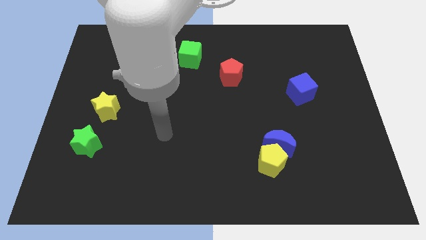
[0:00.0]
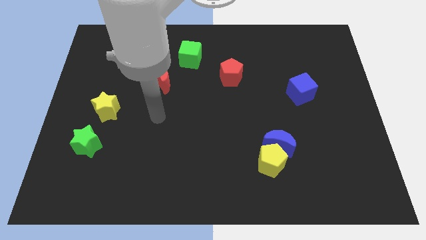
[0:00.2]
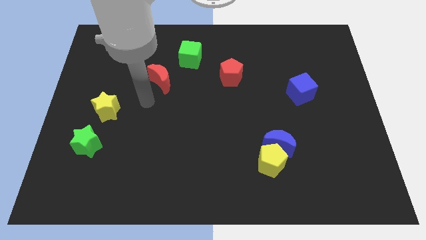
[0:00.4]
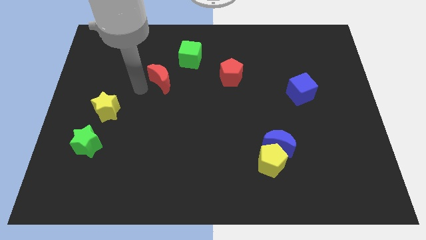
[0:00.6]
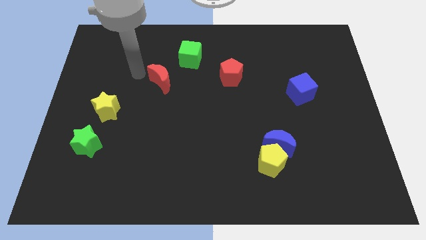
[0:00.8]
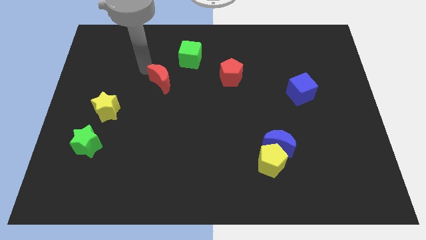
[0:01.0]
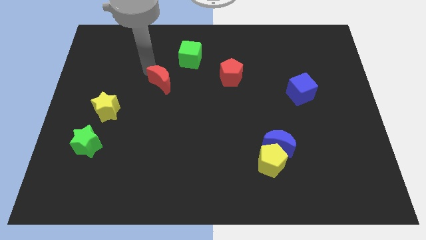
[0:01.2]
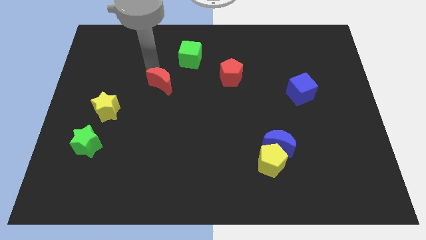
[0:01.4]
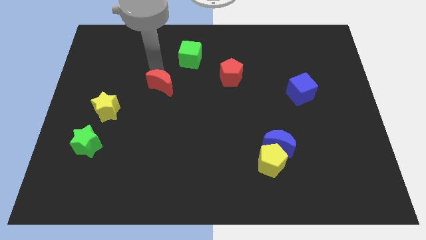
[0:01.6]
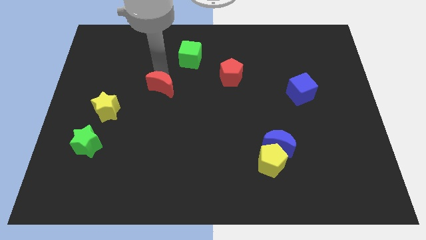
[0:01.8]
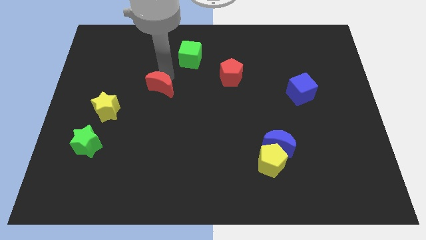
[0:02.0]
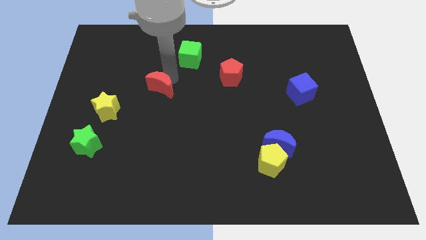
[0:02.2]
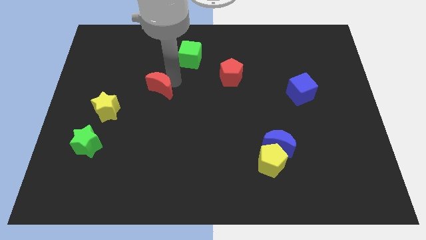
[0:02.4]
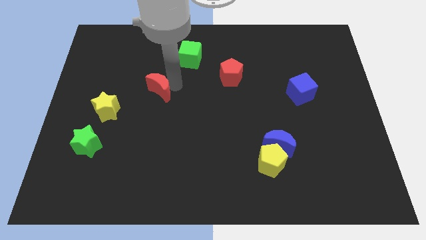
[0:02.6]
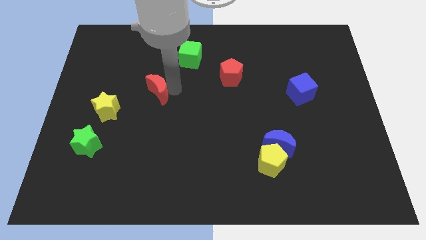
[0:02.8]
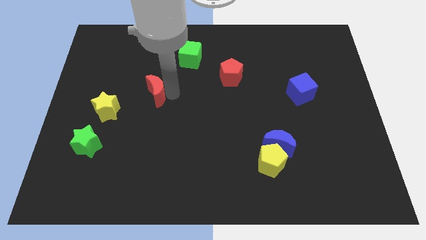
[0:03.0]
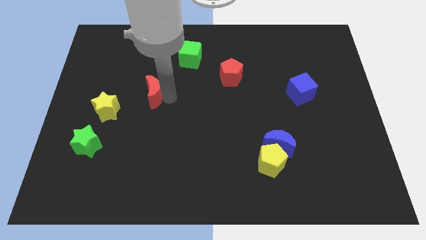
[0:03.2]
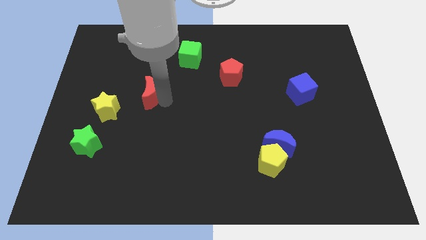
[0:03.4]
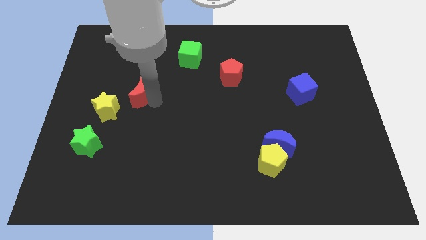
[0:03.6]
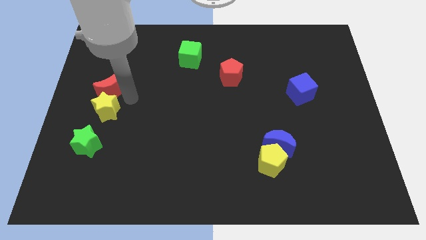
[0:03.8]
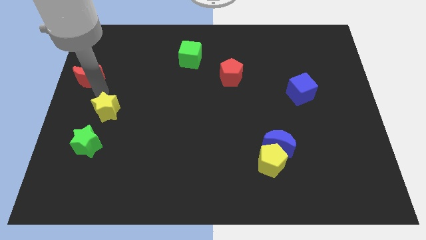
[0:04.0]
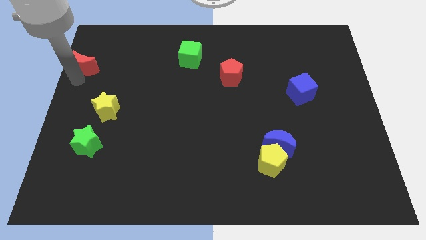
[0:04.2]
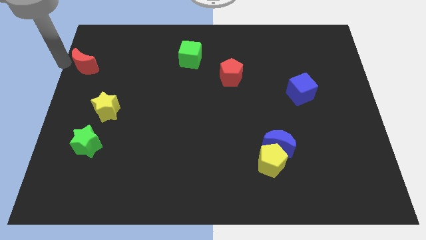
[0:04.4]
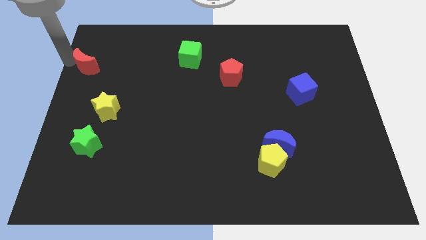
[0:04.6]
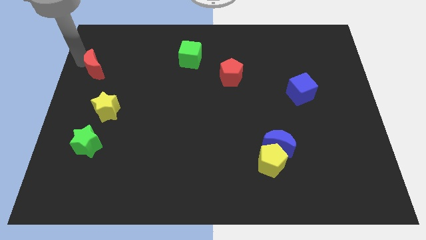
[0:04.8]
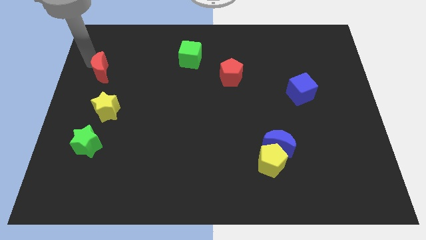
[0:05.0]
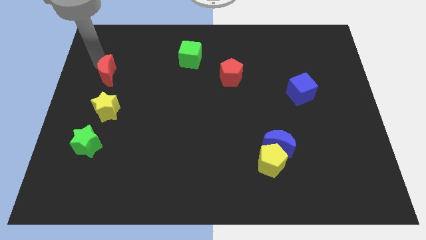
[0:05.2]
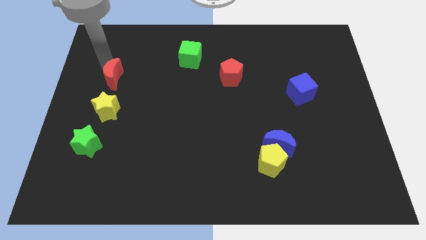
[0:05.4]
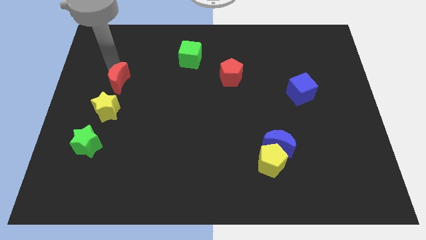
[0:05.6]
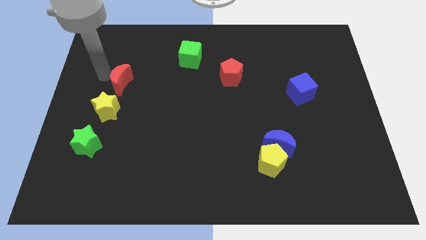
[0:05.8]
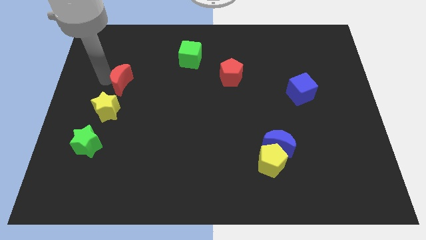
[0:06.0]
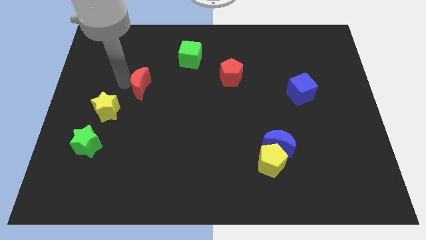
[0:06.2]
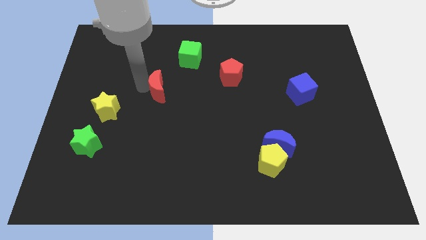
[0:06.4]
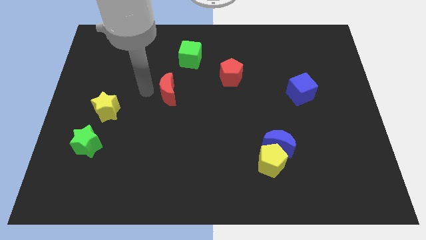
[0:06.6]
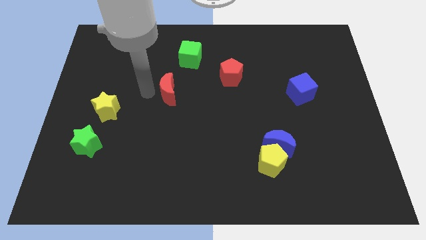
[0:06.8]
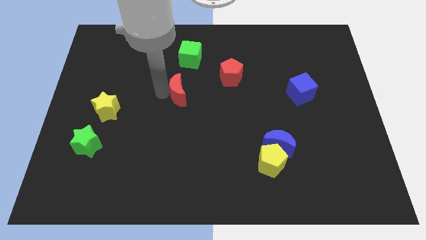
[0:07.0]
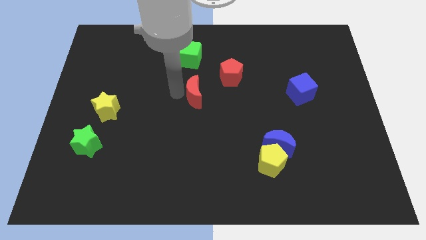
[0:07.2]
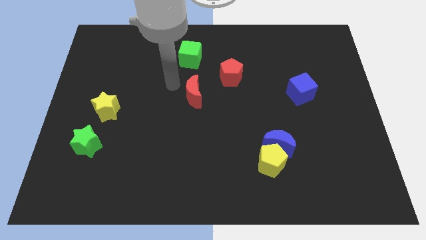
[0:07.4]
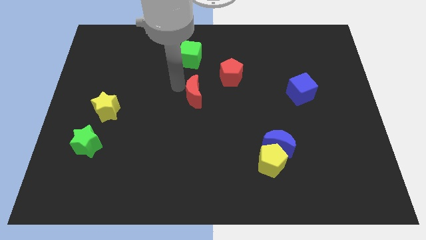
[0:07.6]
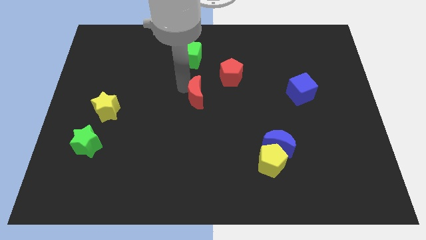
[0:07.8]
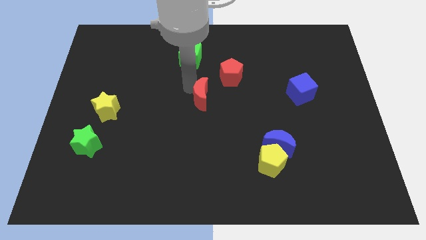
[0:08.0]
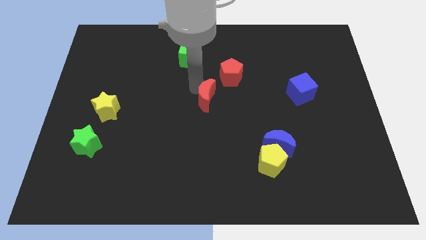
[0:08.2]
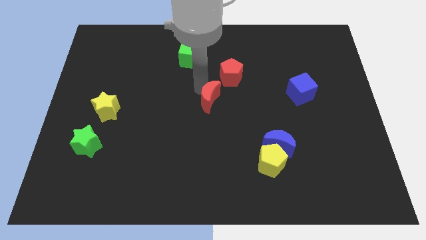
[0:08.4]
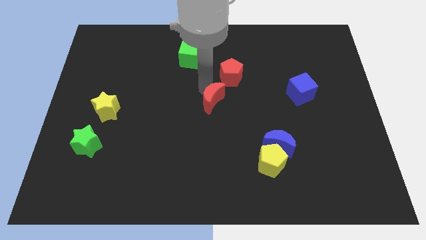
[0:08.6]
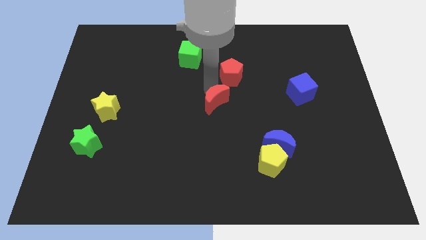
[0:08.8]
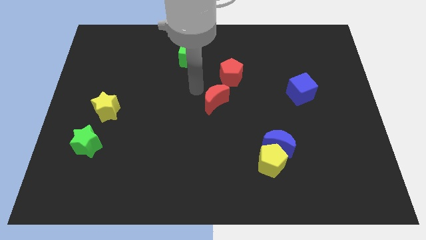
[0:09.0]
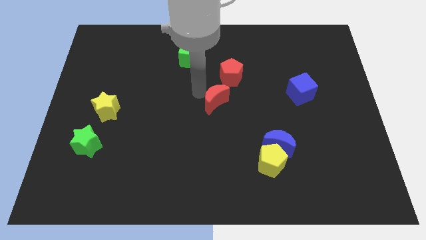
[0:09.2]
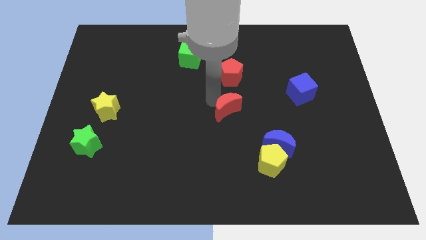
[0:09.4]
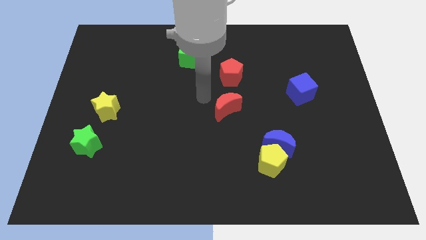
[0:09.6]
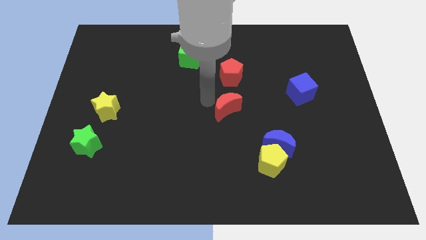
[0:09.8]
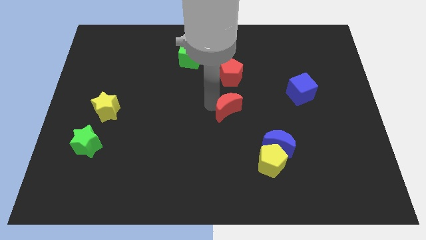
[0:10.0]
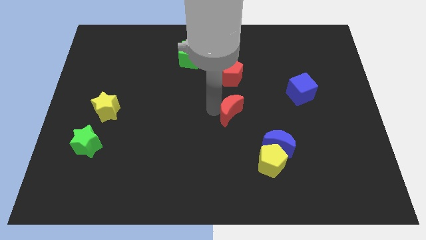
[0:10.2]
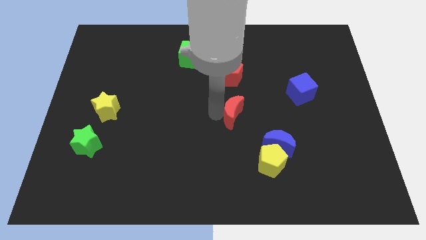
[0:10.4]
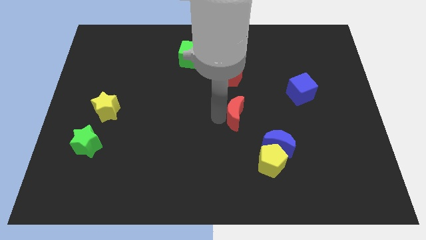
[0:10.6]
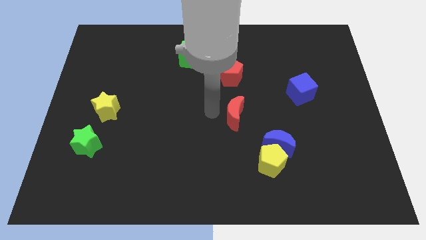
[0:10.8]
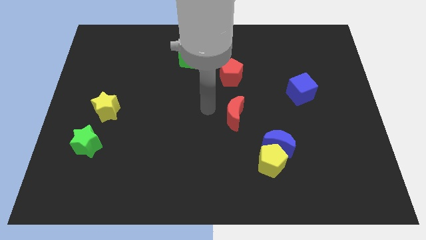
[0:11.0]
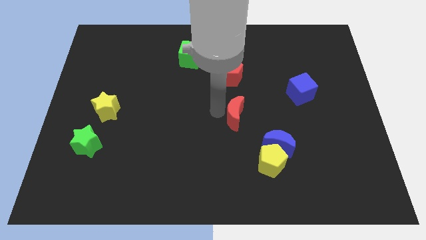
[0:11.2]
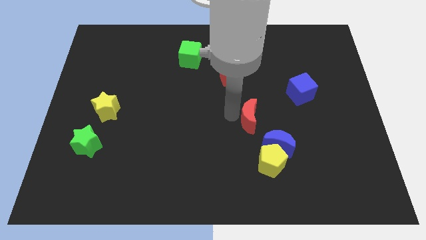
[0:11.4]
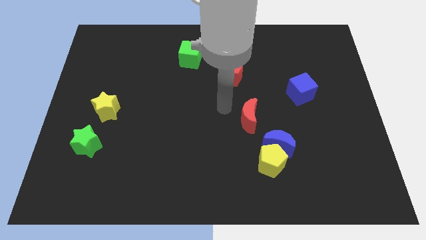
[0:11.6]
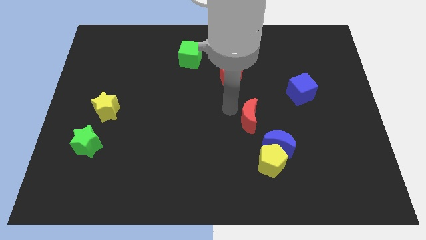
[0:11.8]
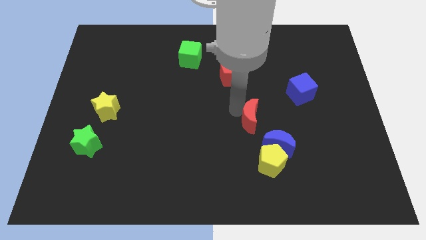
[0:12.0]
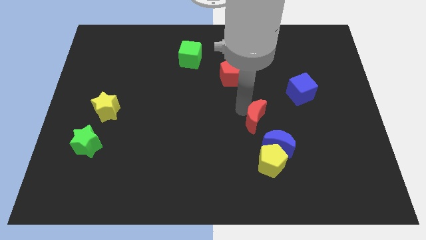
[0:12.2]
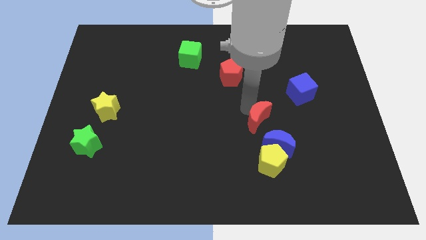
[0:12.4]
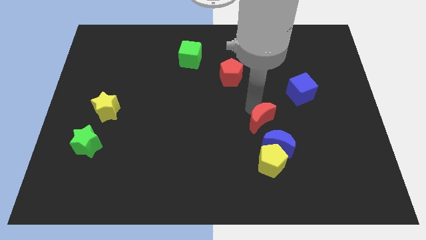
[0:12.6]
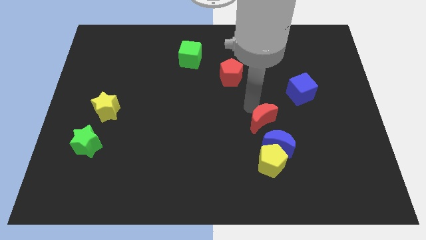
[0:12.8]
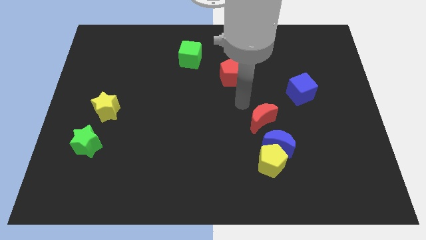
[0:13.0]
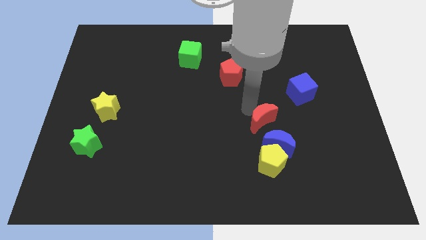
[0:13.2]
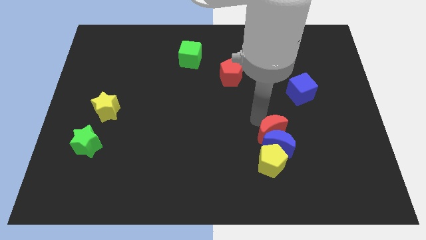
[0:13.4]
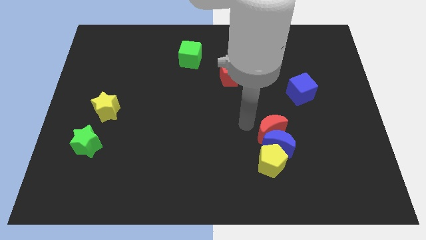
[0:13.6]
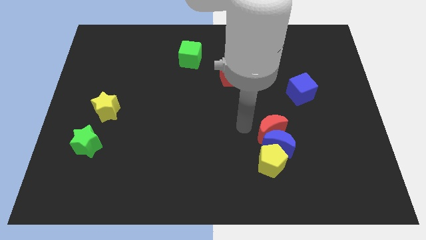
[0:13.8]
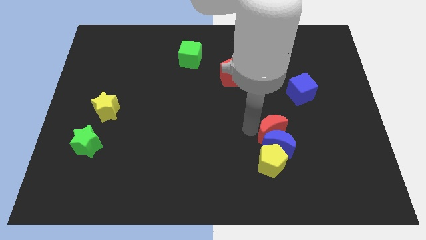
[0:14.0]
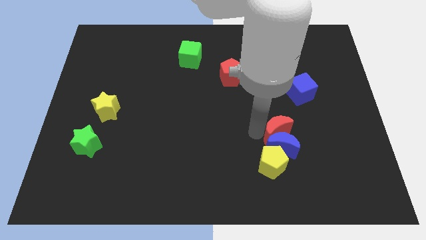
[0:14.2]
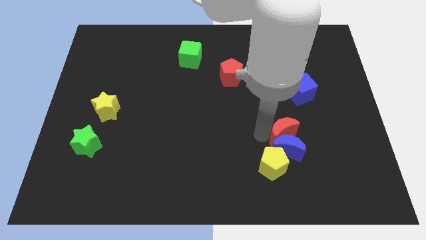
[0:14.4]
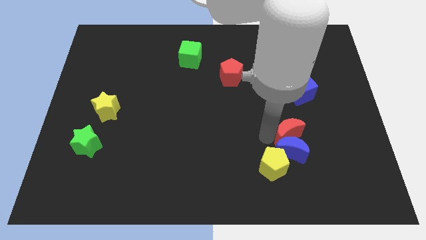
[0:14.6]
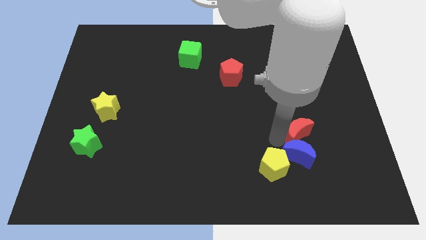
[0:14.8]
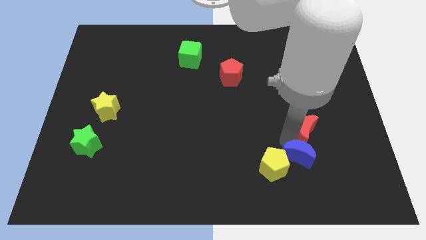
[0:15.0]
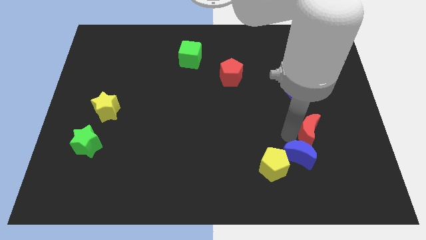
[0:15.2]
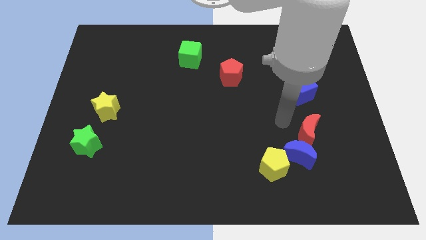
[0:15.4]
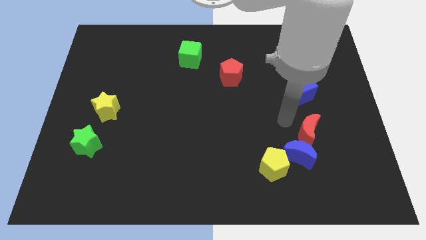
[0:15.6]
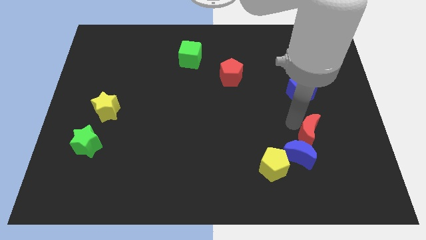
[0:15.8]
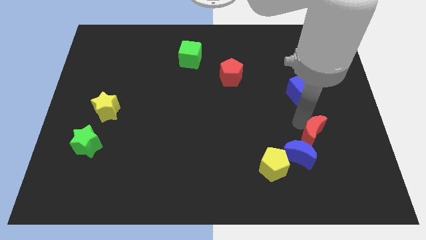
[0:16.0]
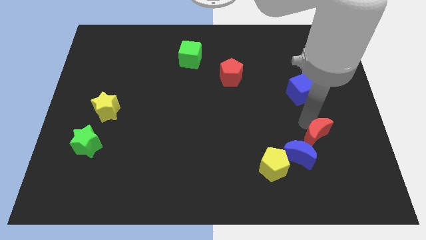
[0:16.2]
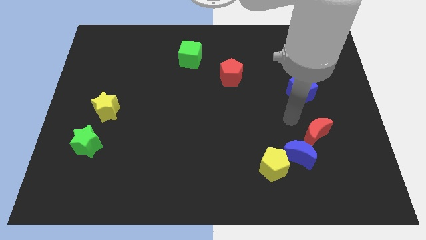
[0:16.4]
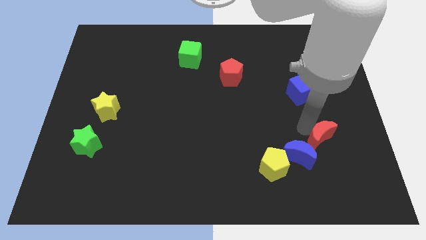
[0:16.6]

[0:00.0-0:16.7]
put the red moon to the right of the blue moon
